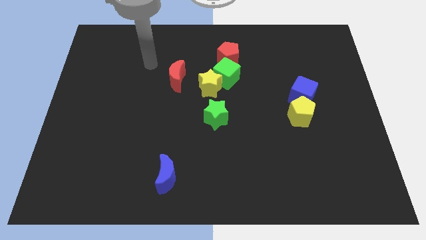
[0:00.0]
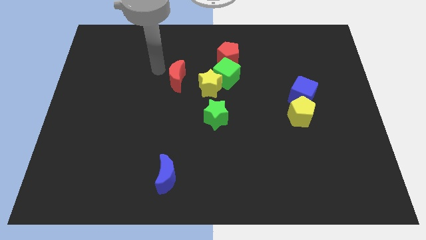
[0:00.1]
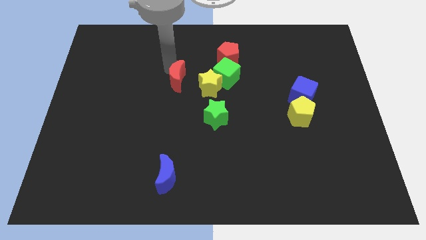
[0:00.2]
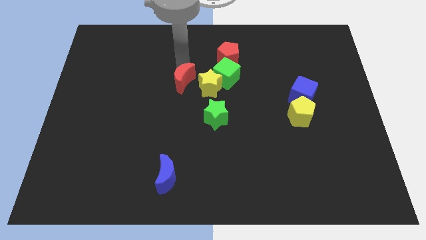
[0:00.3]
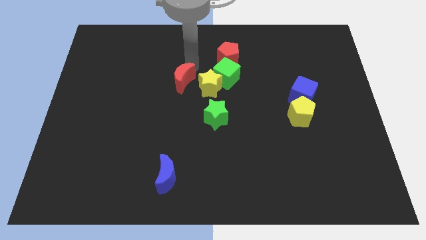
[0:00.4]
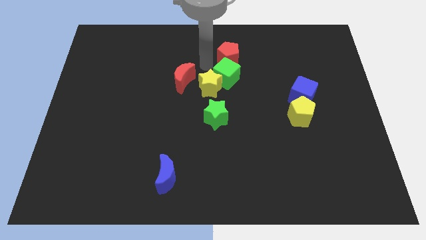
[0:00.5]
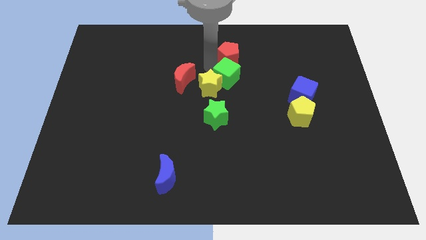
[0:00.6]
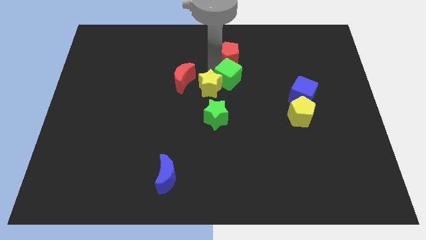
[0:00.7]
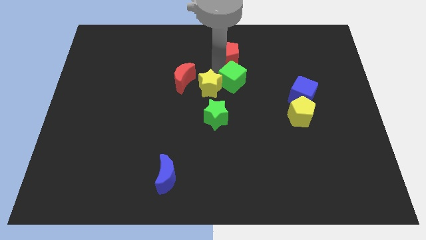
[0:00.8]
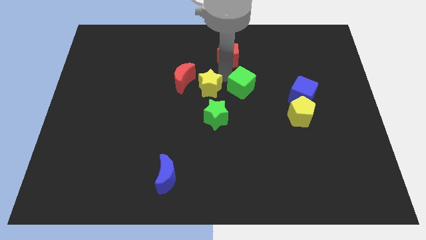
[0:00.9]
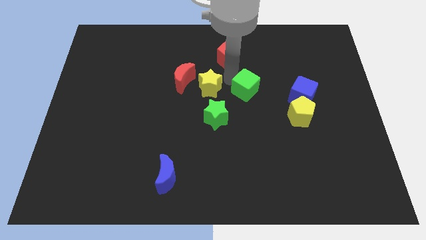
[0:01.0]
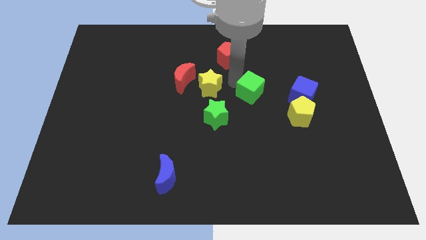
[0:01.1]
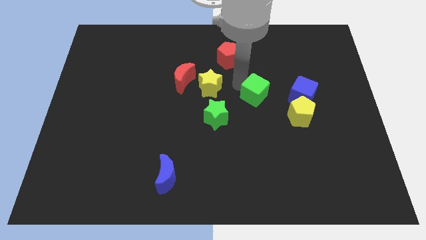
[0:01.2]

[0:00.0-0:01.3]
move the green cube away from the yellow star and red pentagon

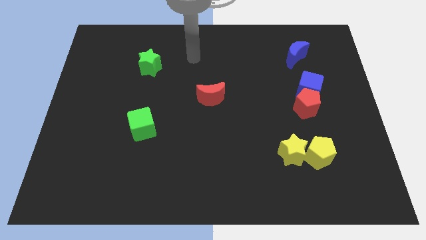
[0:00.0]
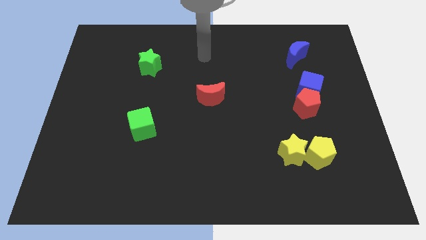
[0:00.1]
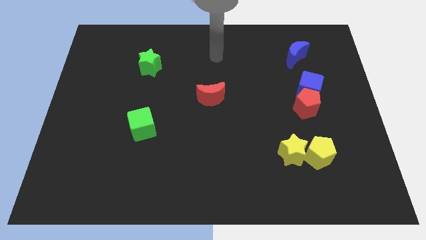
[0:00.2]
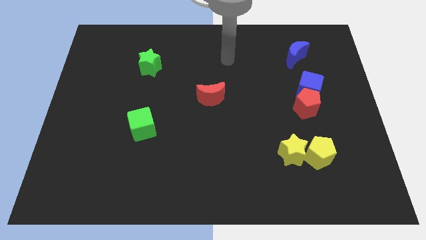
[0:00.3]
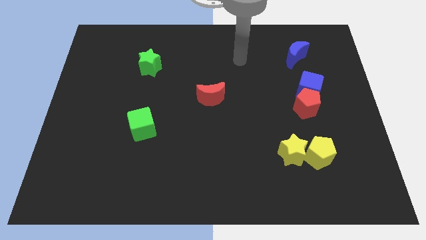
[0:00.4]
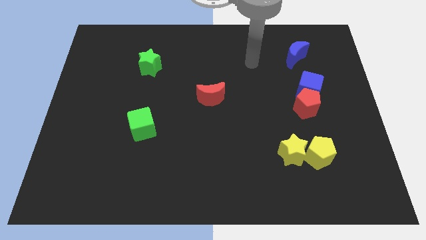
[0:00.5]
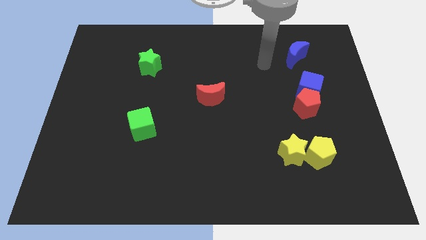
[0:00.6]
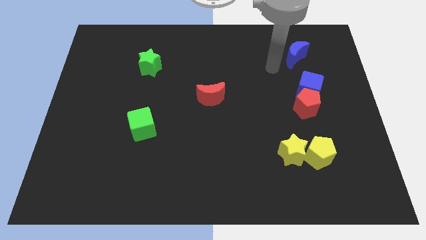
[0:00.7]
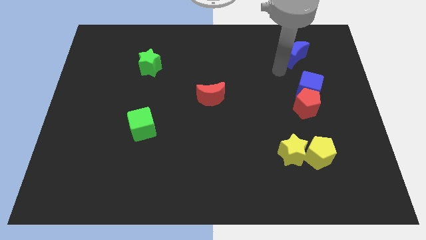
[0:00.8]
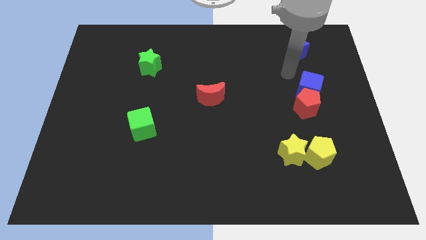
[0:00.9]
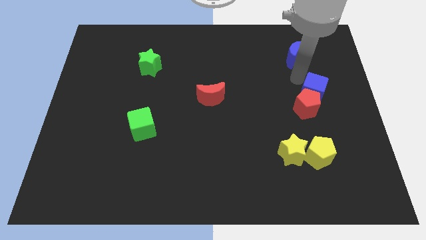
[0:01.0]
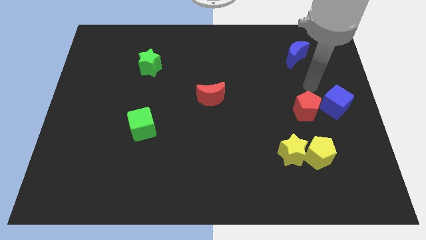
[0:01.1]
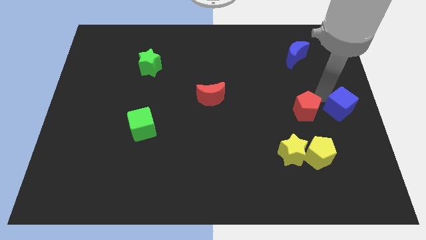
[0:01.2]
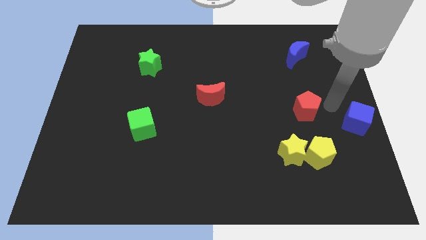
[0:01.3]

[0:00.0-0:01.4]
move the red pentagon away from the blue cube

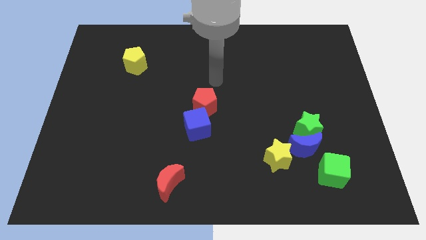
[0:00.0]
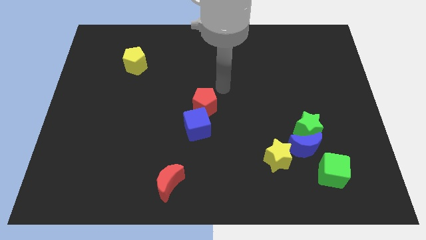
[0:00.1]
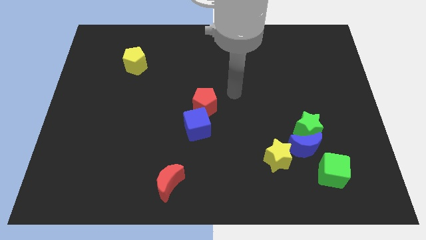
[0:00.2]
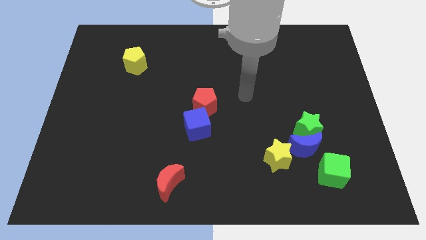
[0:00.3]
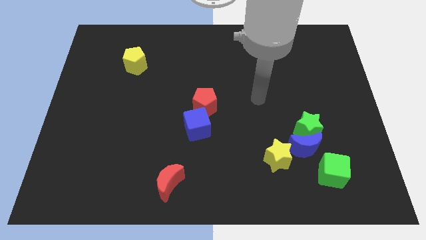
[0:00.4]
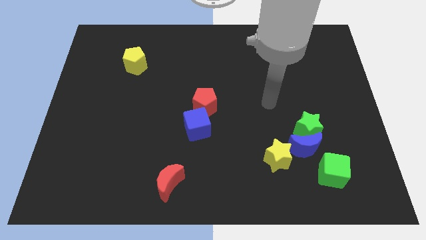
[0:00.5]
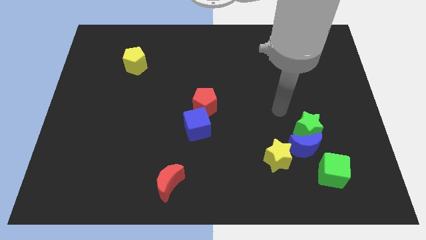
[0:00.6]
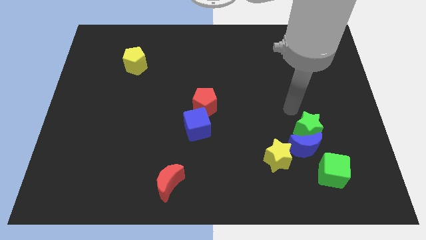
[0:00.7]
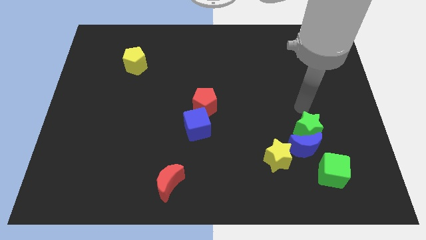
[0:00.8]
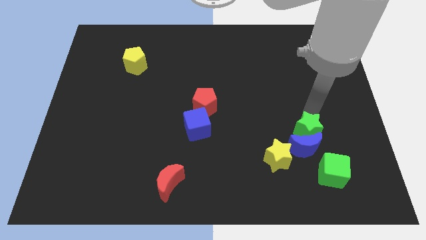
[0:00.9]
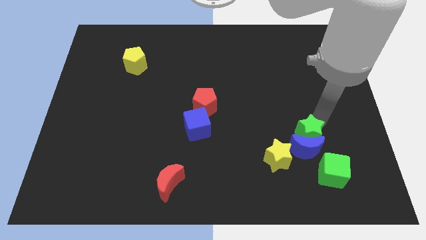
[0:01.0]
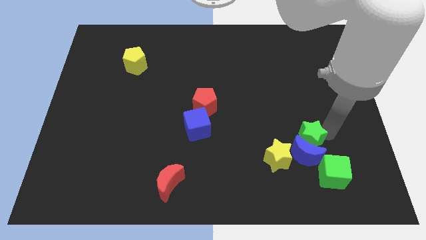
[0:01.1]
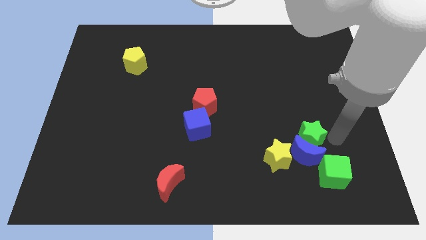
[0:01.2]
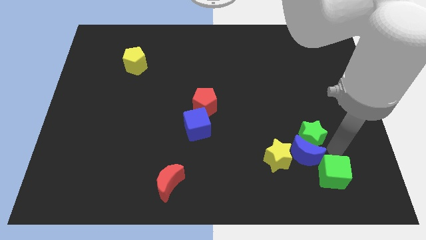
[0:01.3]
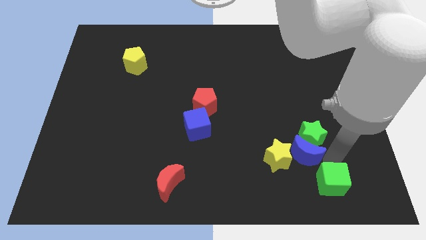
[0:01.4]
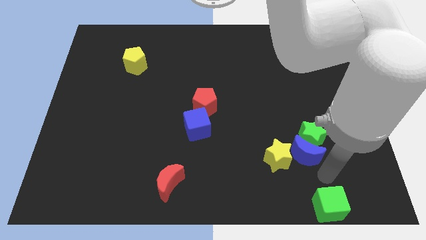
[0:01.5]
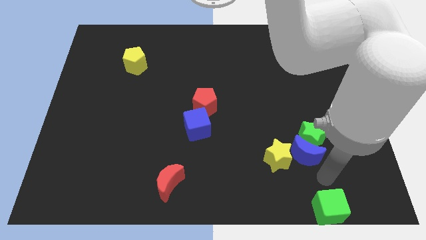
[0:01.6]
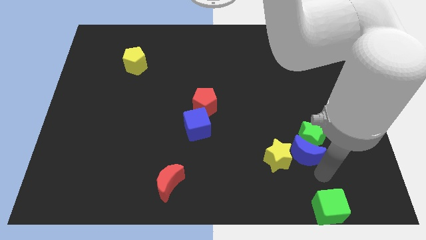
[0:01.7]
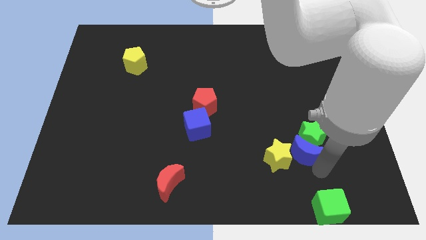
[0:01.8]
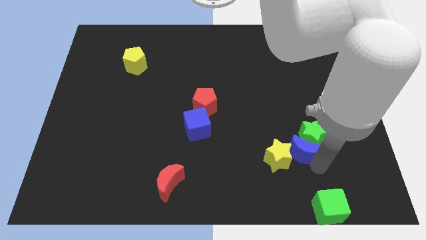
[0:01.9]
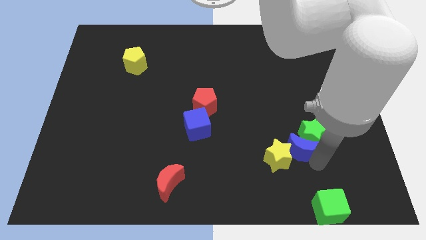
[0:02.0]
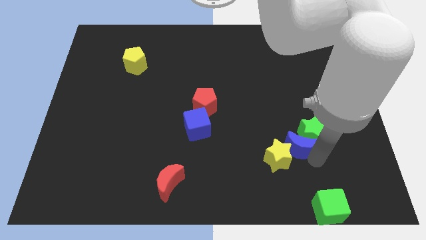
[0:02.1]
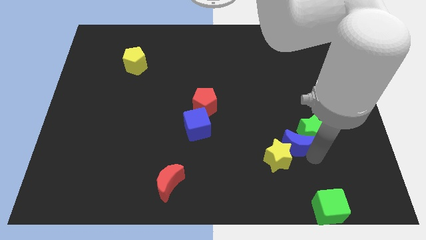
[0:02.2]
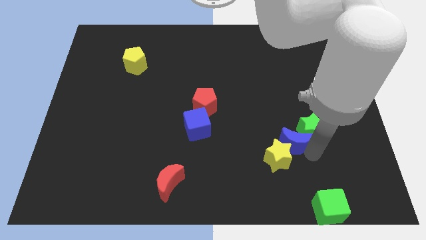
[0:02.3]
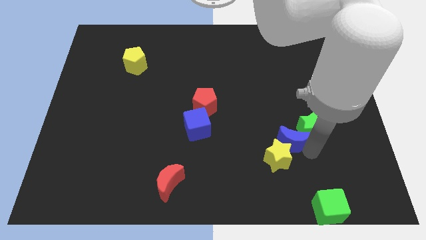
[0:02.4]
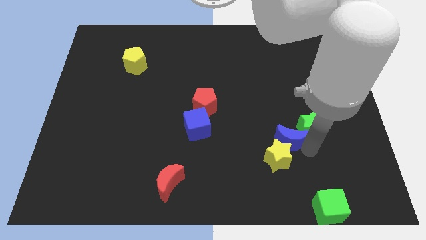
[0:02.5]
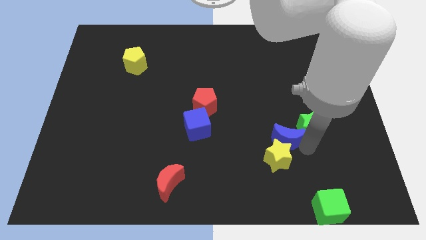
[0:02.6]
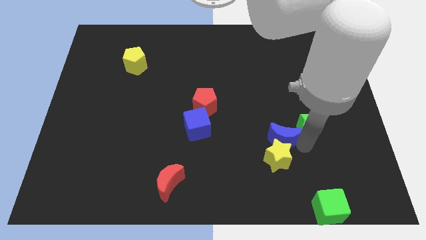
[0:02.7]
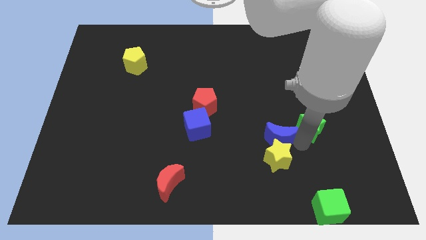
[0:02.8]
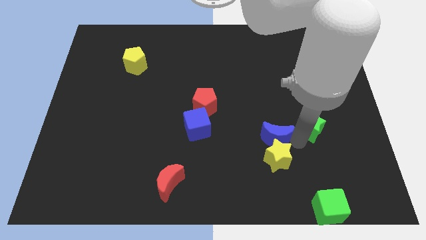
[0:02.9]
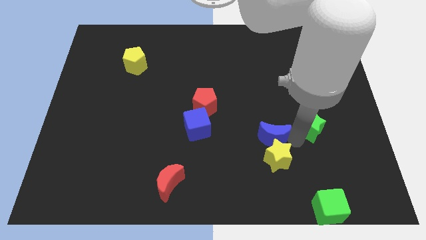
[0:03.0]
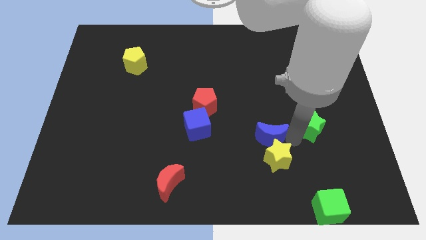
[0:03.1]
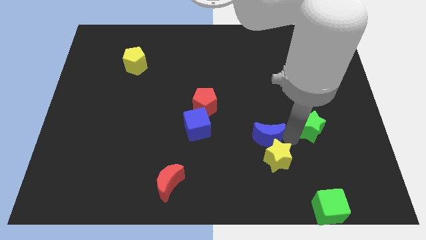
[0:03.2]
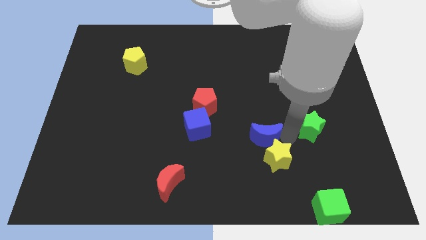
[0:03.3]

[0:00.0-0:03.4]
separate the blue moon from the clump

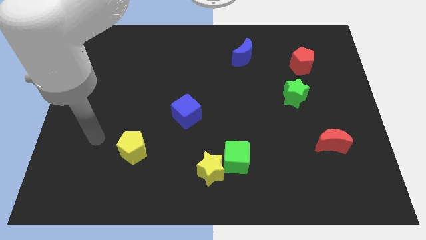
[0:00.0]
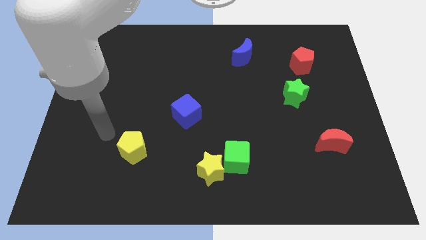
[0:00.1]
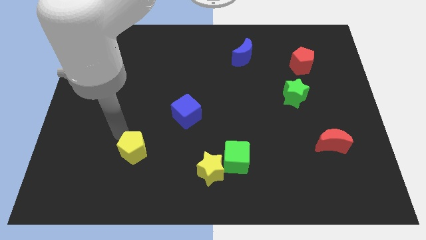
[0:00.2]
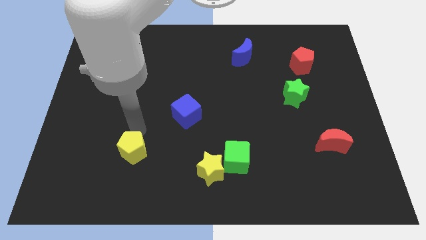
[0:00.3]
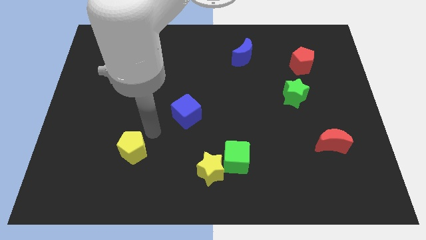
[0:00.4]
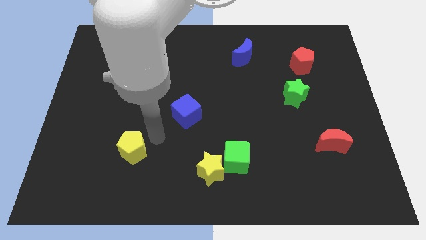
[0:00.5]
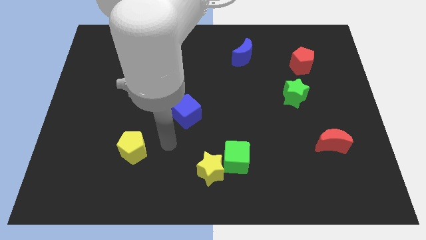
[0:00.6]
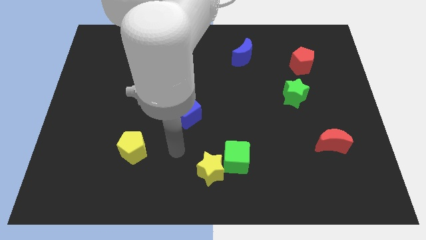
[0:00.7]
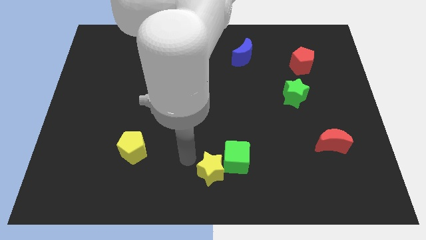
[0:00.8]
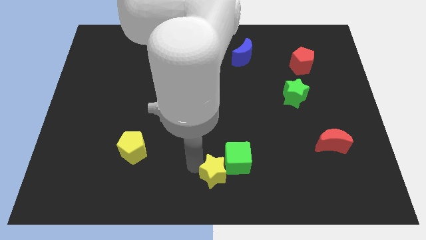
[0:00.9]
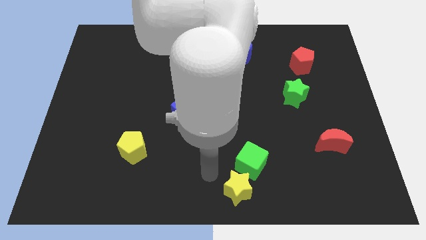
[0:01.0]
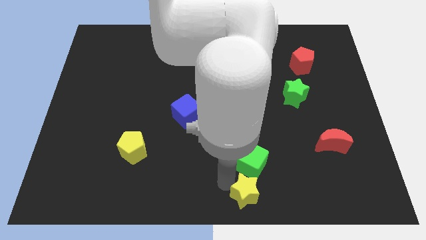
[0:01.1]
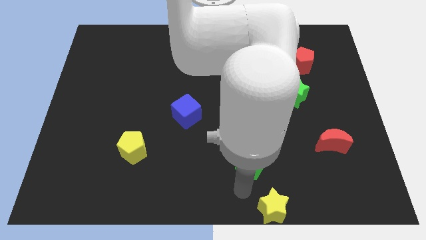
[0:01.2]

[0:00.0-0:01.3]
separate the green cube from the yellow star

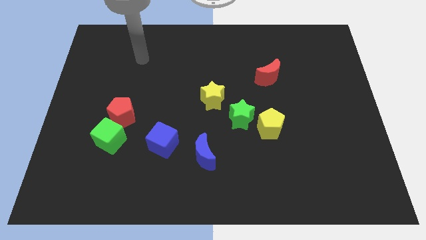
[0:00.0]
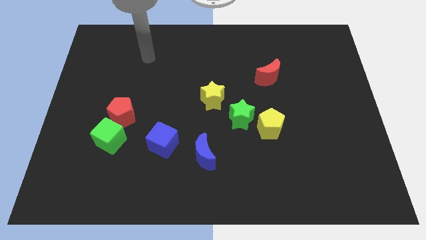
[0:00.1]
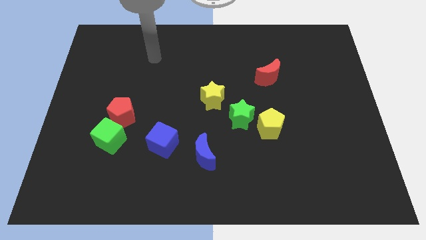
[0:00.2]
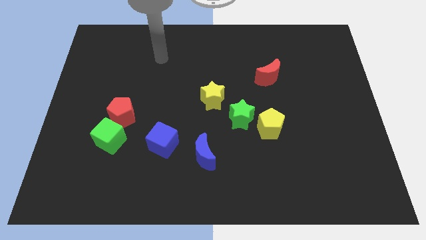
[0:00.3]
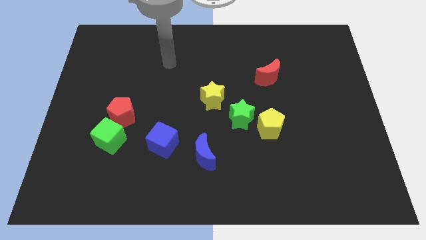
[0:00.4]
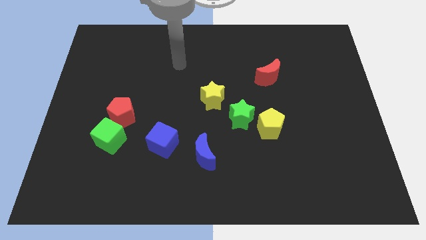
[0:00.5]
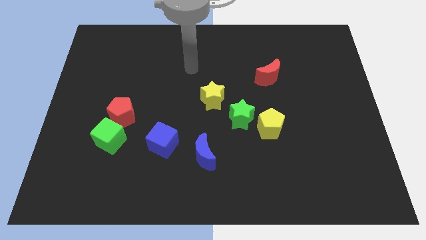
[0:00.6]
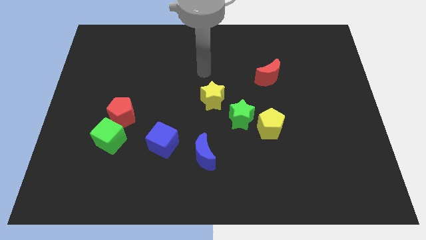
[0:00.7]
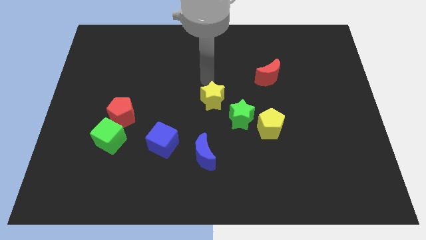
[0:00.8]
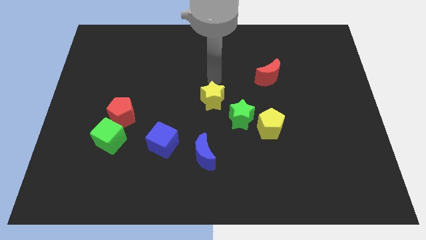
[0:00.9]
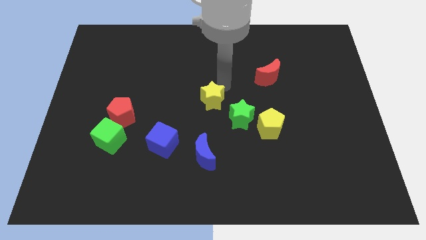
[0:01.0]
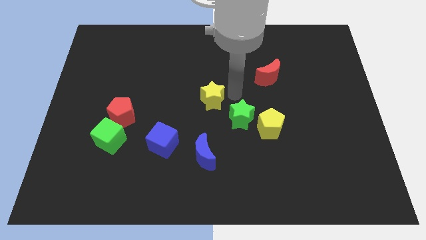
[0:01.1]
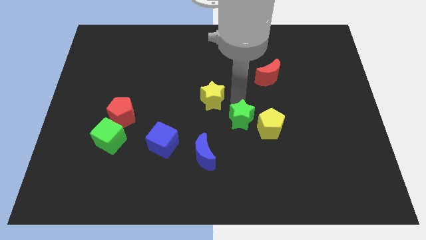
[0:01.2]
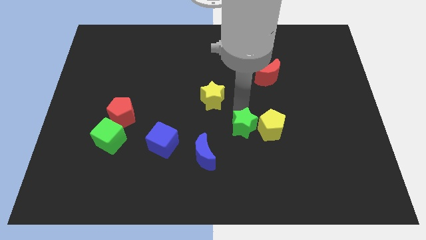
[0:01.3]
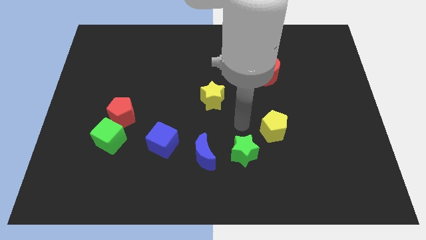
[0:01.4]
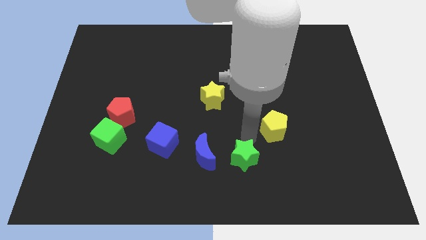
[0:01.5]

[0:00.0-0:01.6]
separate the yellow pentagon from the green star

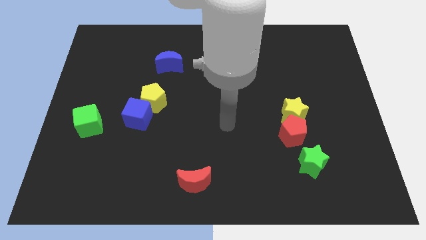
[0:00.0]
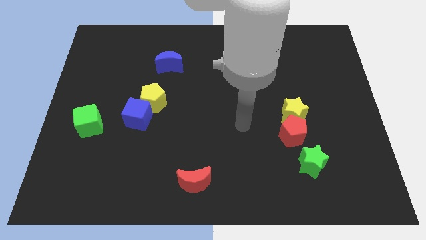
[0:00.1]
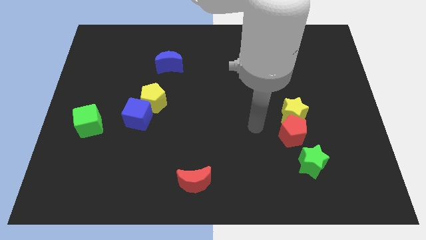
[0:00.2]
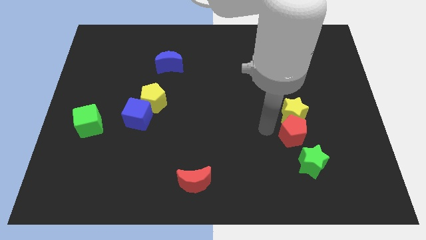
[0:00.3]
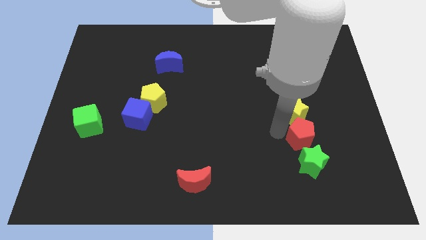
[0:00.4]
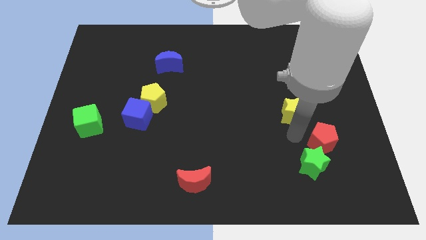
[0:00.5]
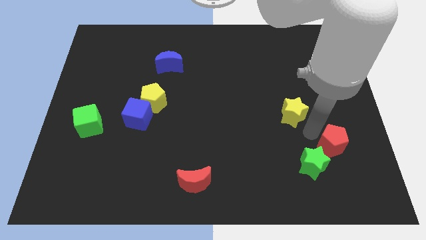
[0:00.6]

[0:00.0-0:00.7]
separate the yellow star from the red pentagon
